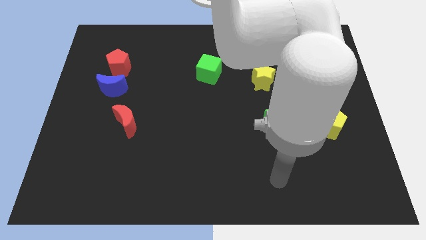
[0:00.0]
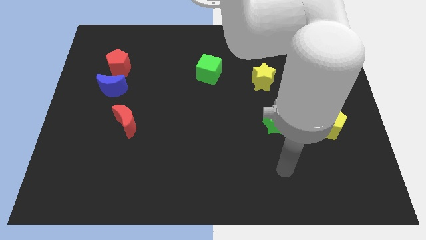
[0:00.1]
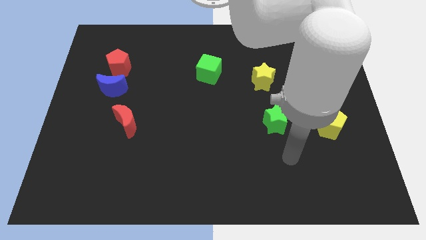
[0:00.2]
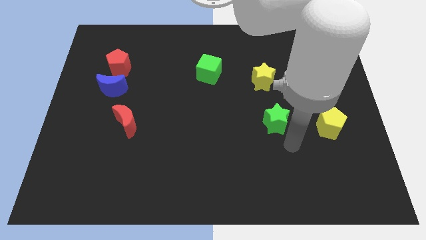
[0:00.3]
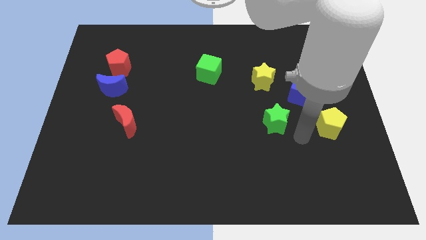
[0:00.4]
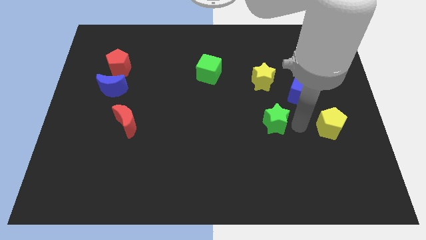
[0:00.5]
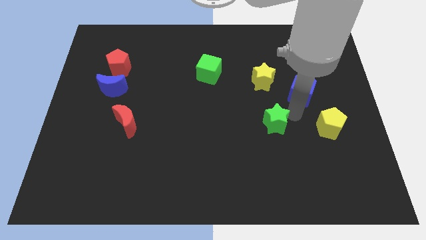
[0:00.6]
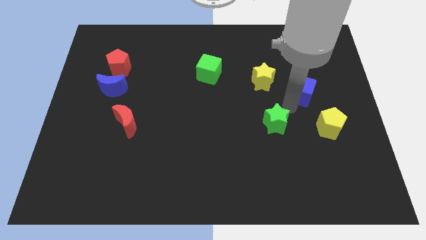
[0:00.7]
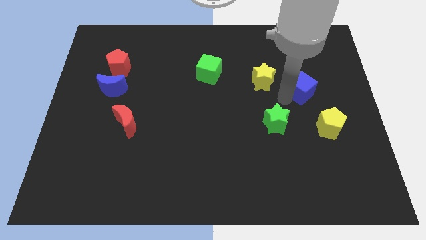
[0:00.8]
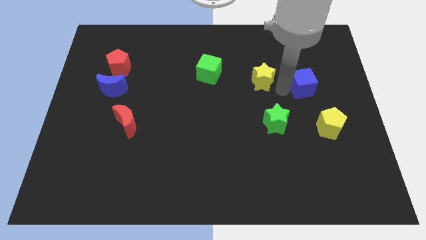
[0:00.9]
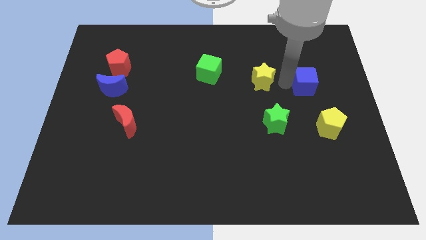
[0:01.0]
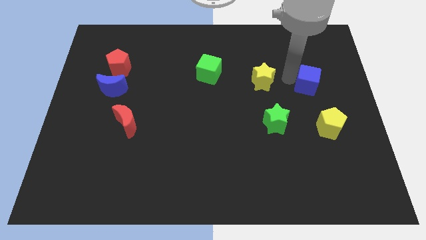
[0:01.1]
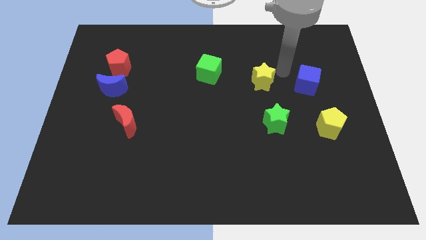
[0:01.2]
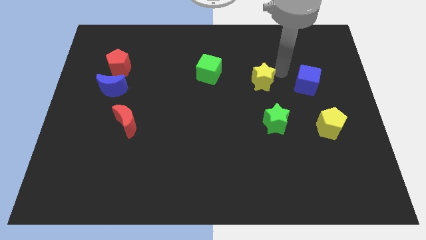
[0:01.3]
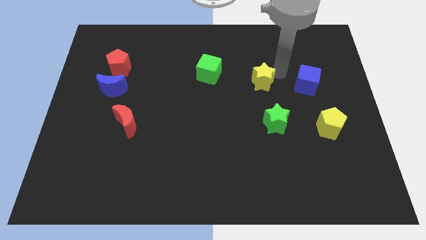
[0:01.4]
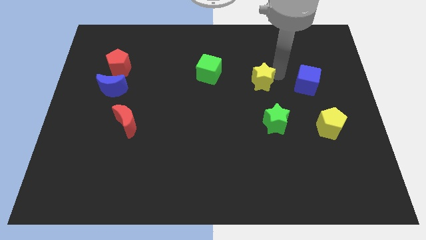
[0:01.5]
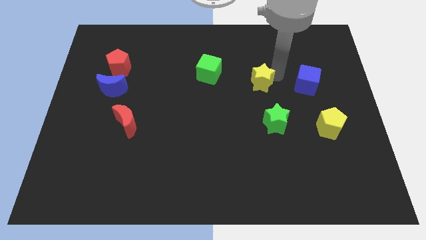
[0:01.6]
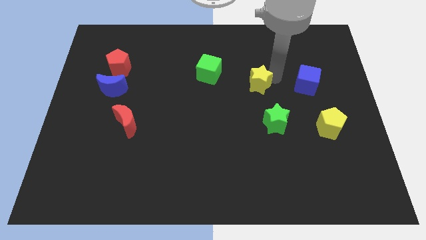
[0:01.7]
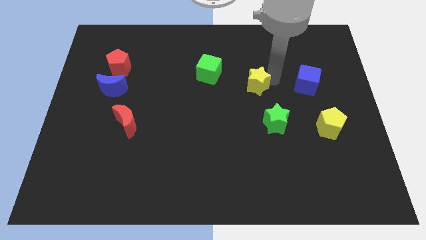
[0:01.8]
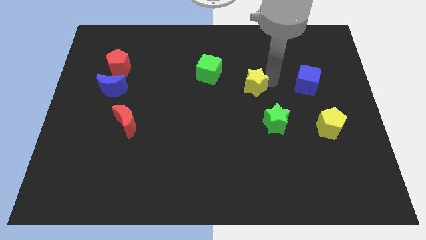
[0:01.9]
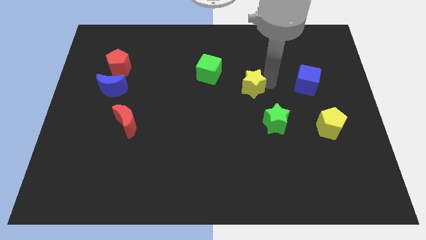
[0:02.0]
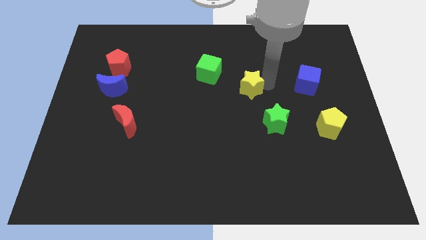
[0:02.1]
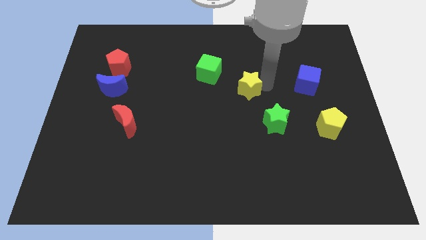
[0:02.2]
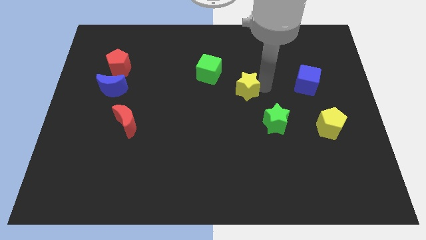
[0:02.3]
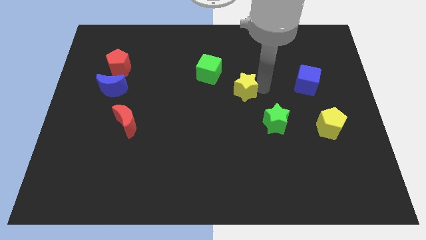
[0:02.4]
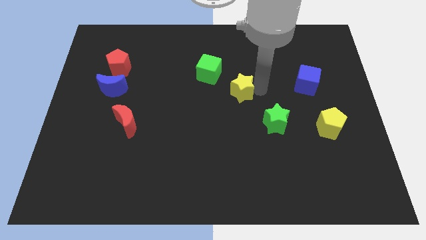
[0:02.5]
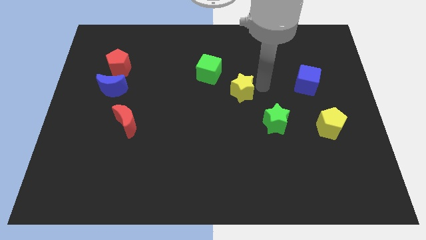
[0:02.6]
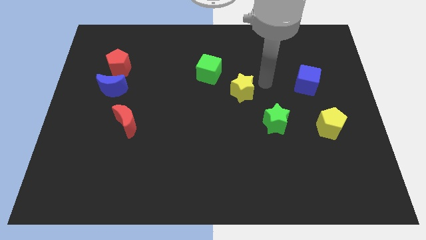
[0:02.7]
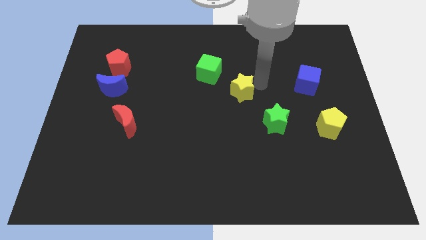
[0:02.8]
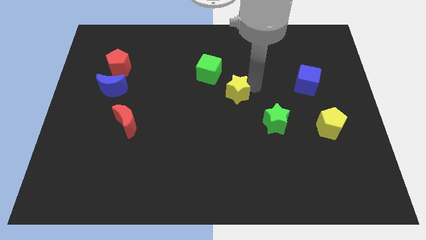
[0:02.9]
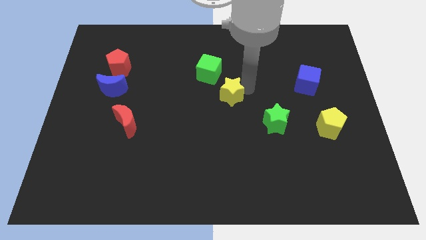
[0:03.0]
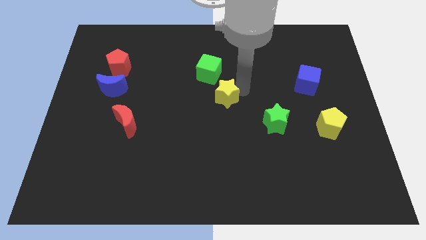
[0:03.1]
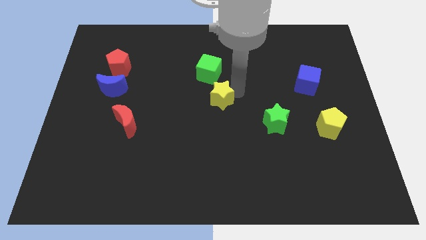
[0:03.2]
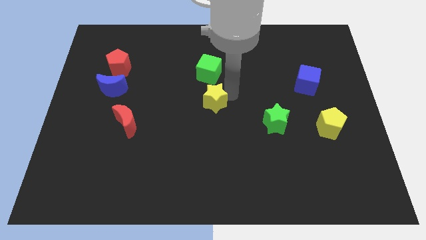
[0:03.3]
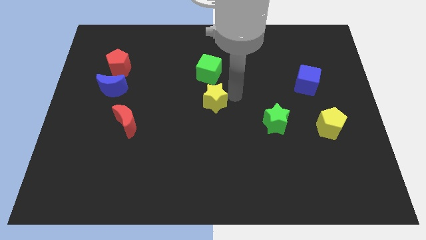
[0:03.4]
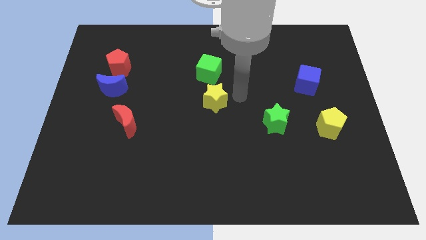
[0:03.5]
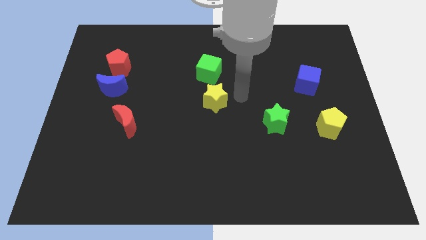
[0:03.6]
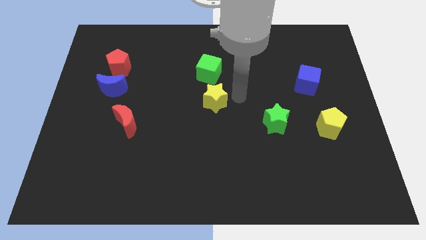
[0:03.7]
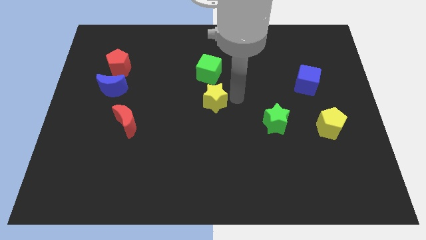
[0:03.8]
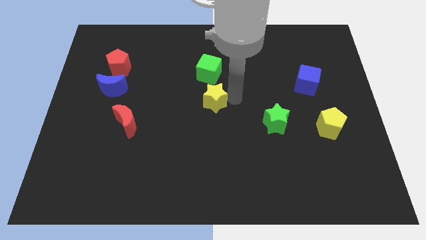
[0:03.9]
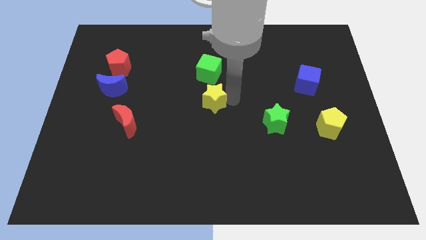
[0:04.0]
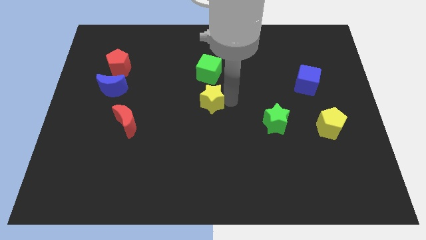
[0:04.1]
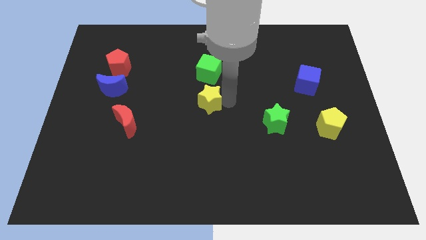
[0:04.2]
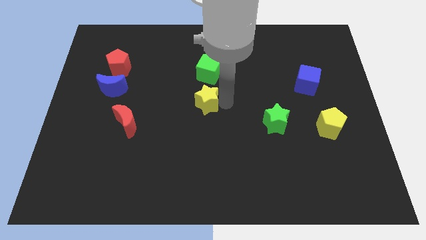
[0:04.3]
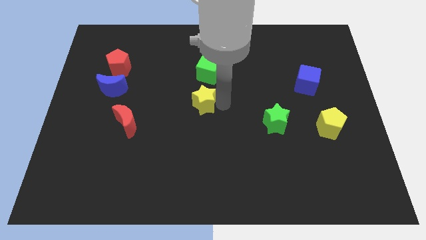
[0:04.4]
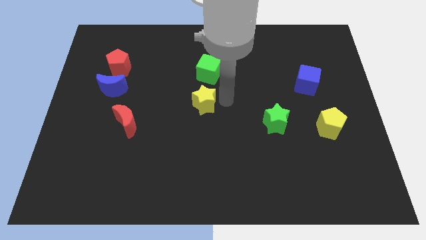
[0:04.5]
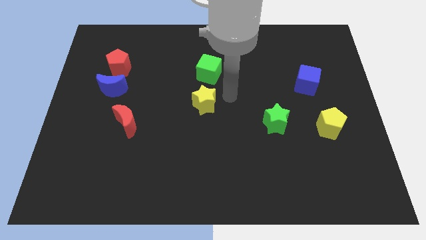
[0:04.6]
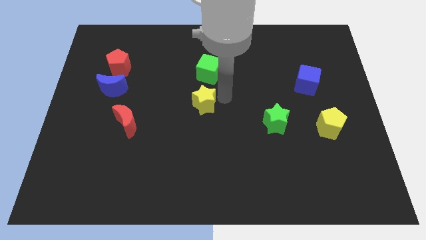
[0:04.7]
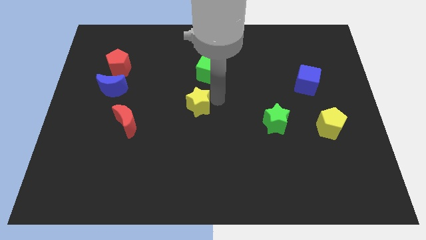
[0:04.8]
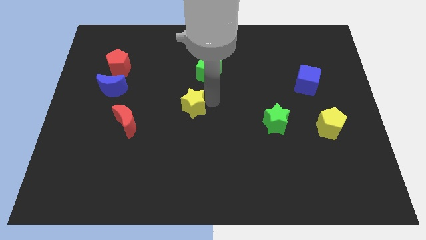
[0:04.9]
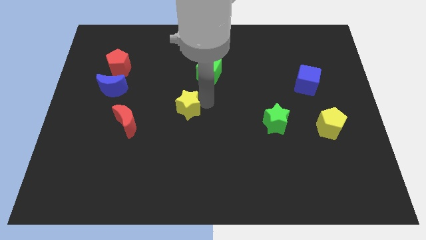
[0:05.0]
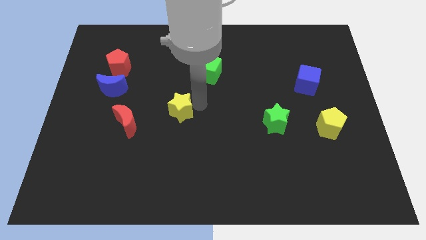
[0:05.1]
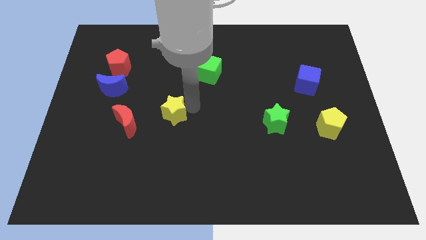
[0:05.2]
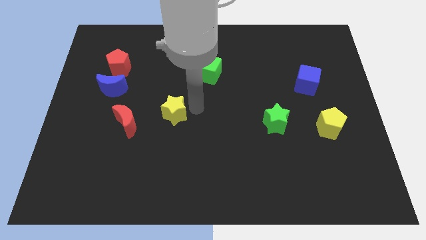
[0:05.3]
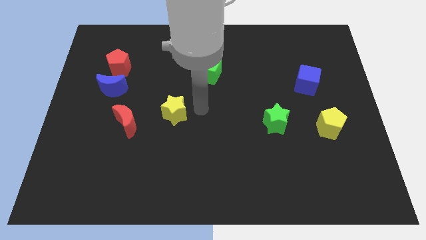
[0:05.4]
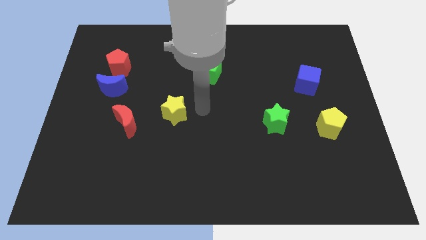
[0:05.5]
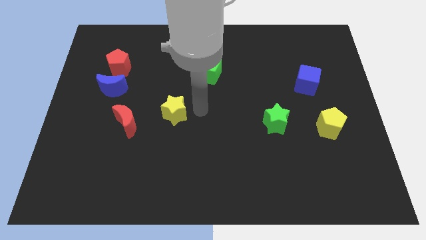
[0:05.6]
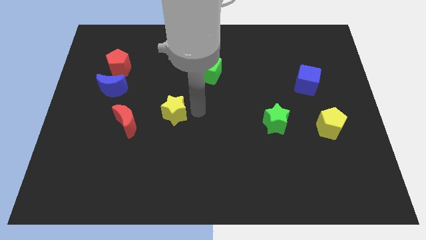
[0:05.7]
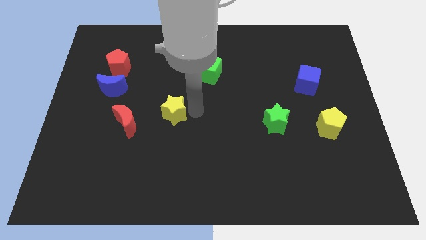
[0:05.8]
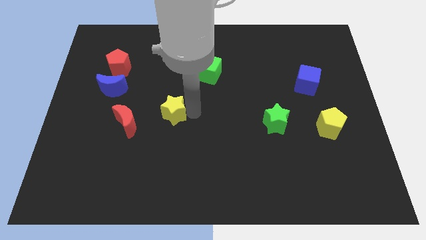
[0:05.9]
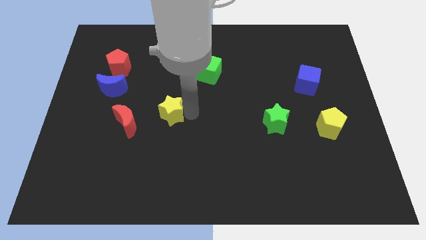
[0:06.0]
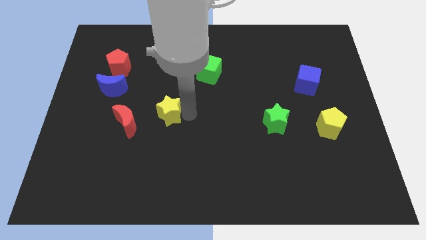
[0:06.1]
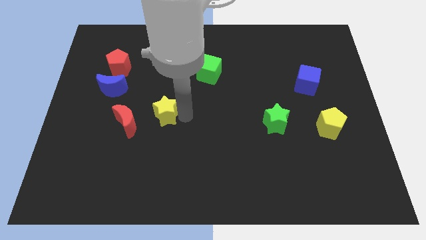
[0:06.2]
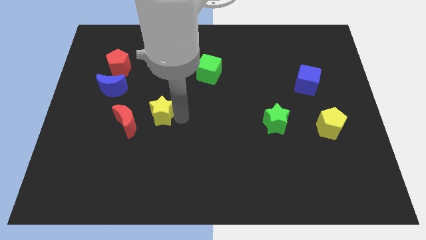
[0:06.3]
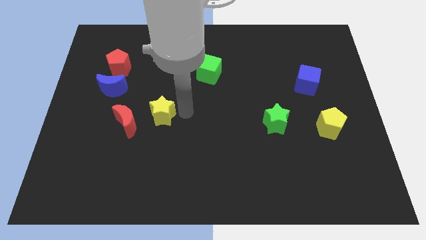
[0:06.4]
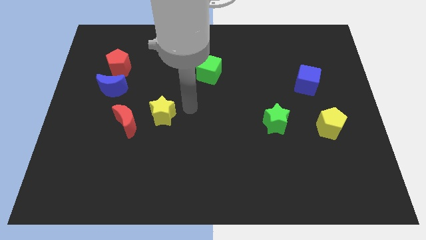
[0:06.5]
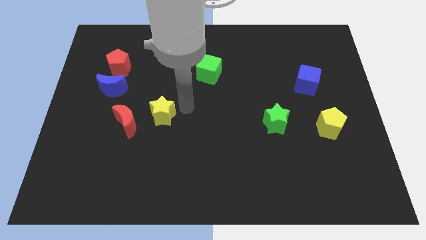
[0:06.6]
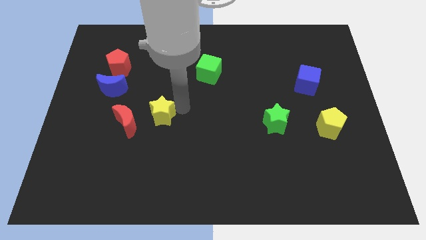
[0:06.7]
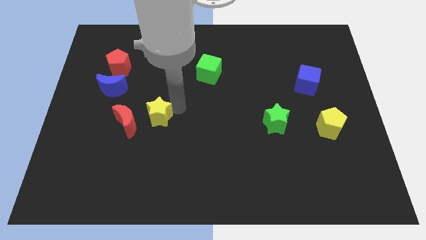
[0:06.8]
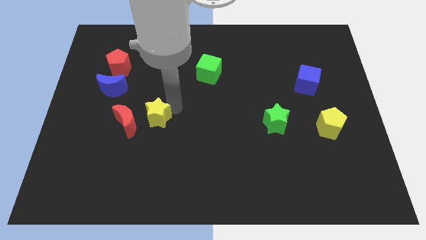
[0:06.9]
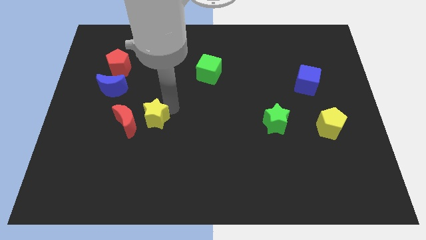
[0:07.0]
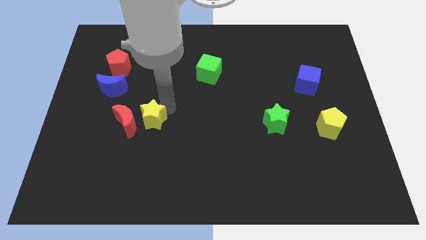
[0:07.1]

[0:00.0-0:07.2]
push the yellow star close to the red moon

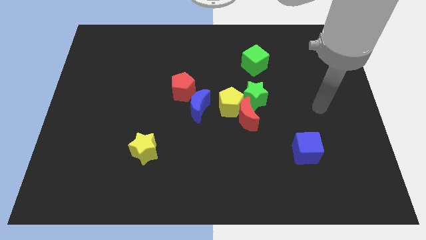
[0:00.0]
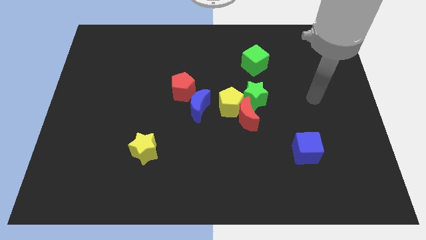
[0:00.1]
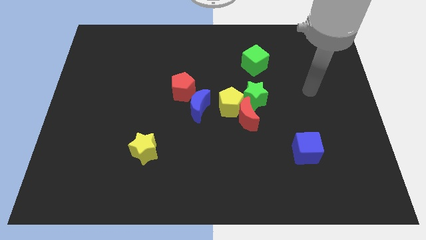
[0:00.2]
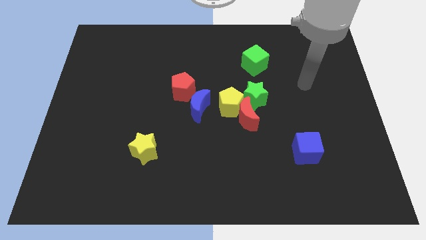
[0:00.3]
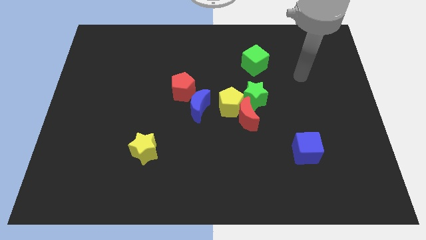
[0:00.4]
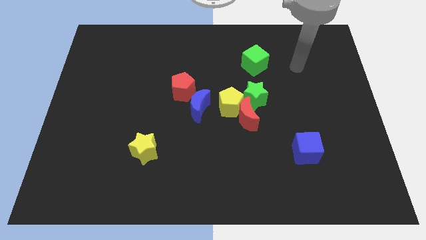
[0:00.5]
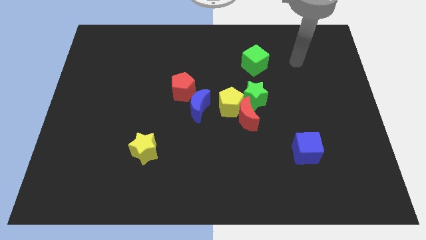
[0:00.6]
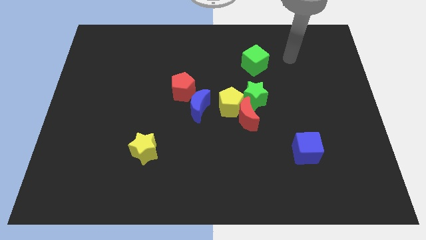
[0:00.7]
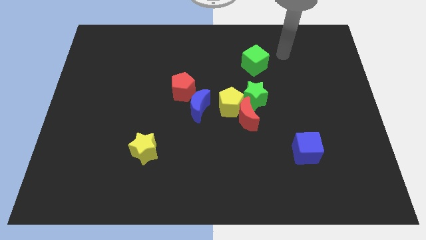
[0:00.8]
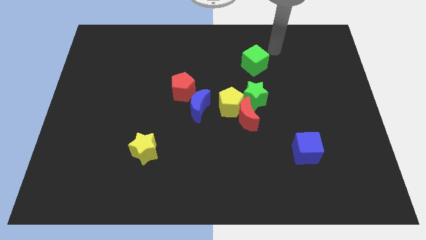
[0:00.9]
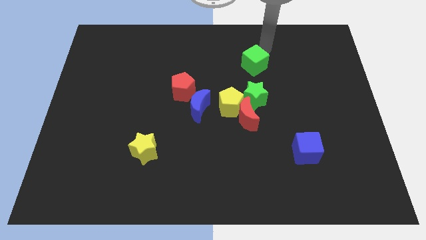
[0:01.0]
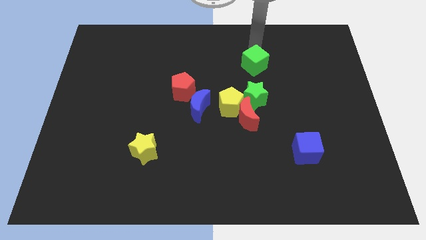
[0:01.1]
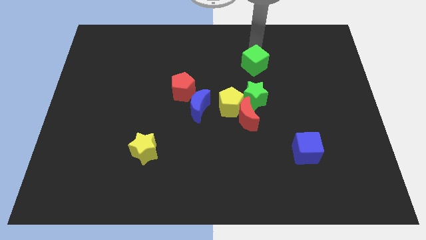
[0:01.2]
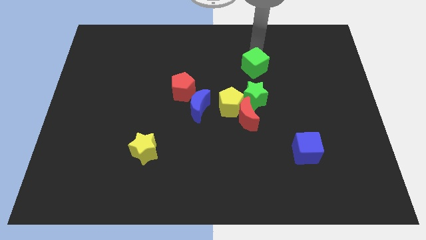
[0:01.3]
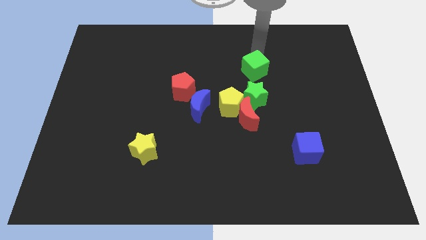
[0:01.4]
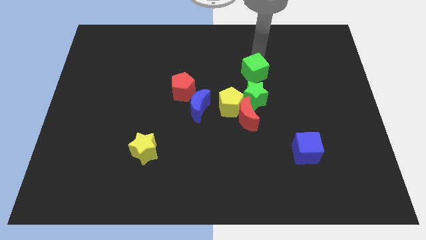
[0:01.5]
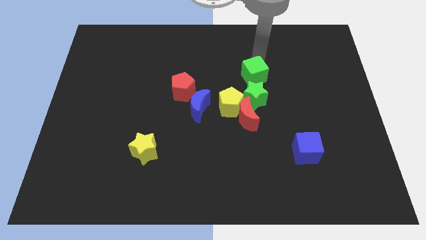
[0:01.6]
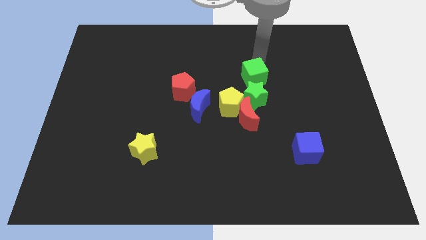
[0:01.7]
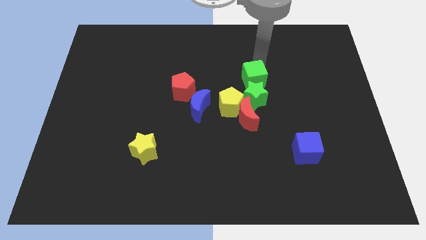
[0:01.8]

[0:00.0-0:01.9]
push the green cube to the green star
